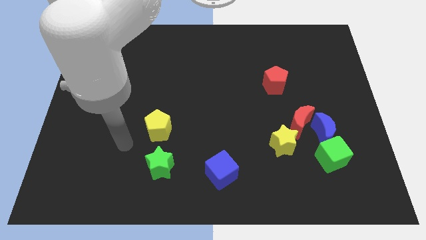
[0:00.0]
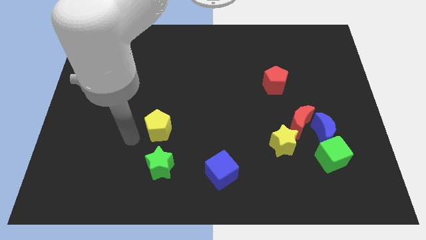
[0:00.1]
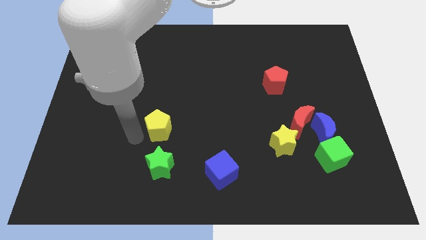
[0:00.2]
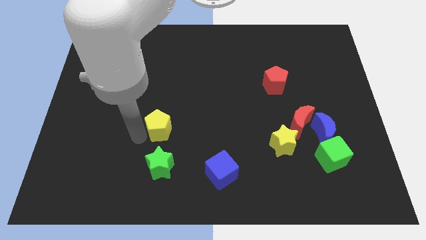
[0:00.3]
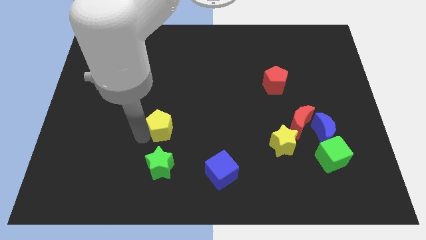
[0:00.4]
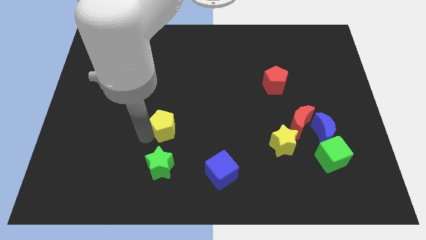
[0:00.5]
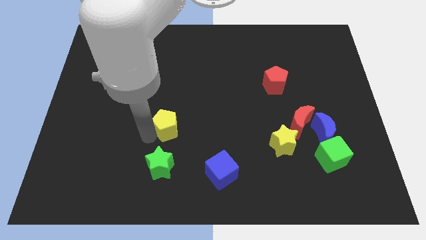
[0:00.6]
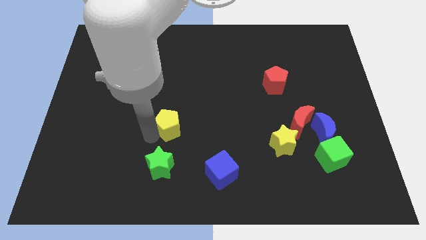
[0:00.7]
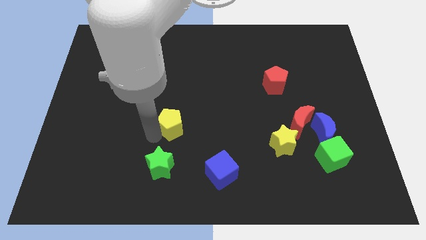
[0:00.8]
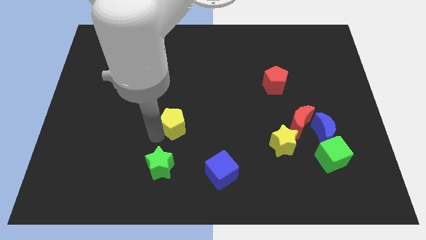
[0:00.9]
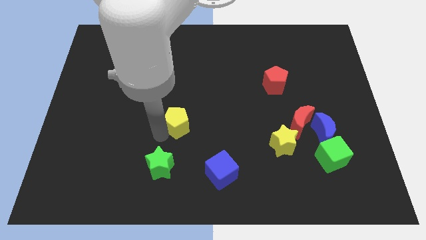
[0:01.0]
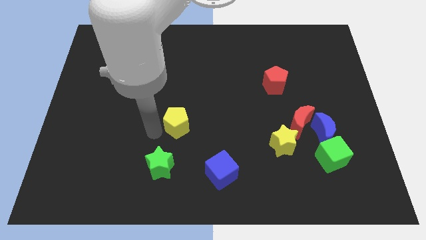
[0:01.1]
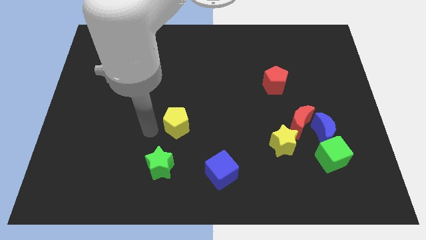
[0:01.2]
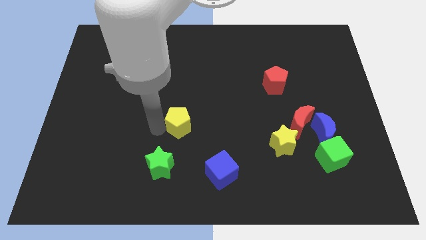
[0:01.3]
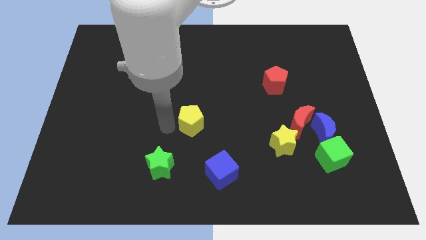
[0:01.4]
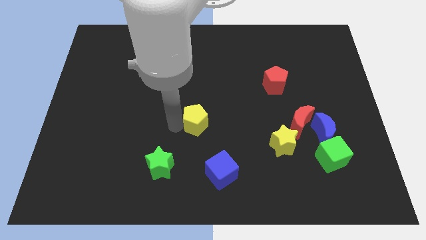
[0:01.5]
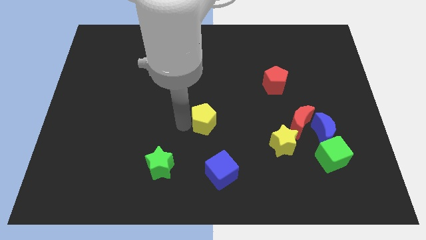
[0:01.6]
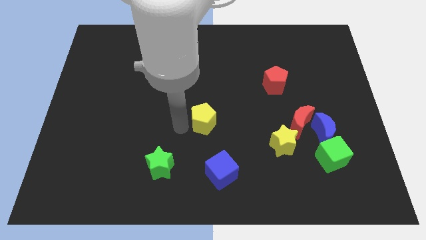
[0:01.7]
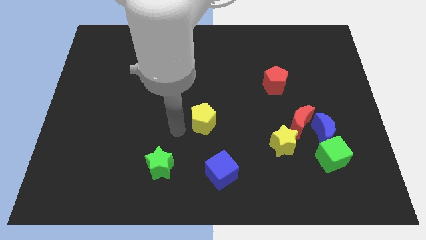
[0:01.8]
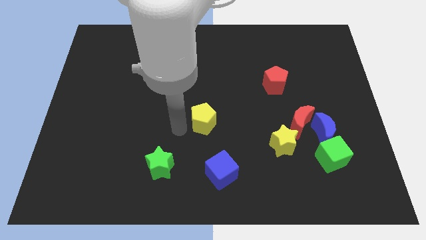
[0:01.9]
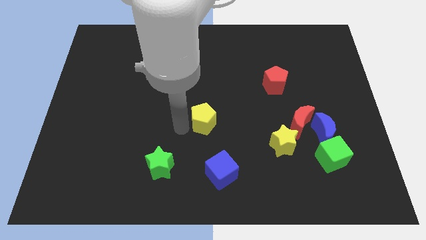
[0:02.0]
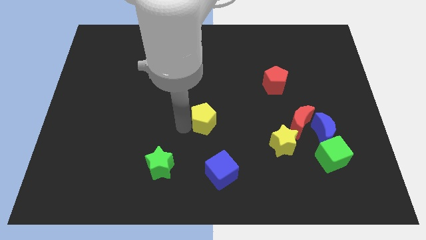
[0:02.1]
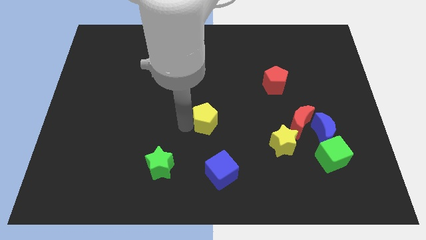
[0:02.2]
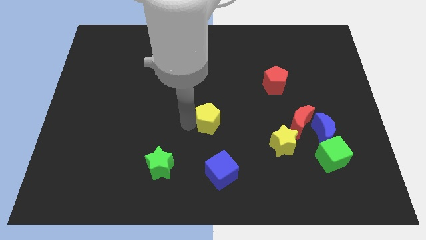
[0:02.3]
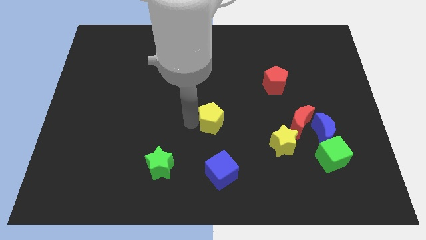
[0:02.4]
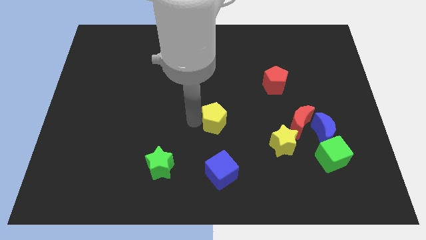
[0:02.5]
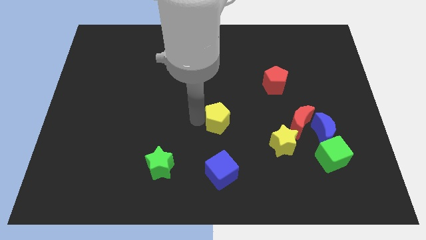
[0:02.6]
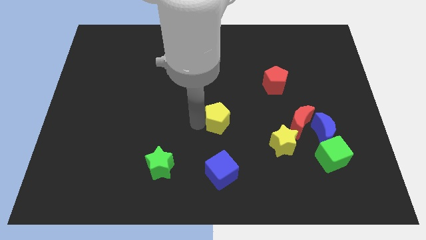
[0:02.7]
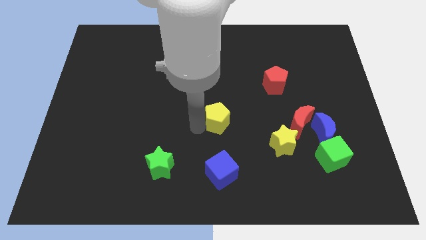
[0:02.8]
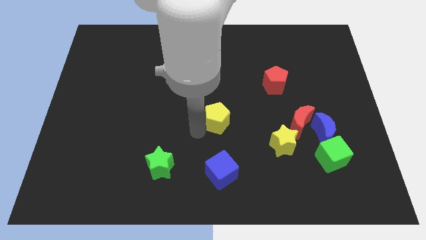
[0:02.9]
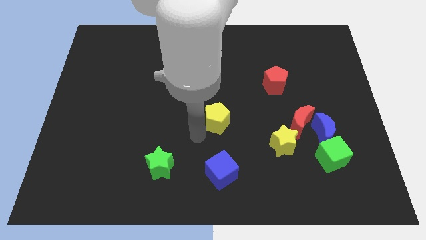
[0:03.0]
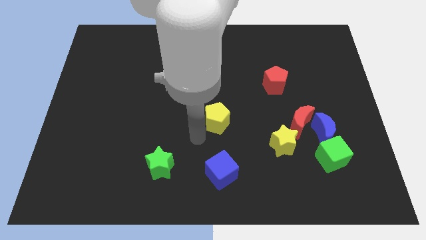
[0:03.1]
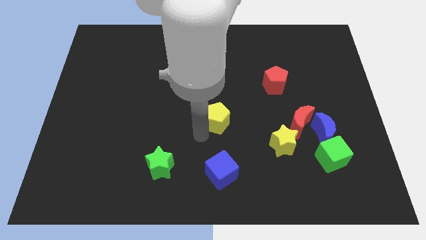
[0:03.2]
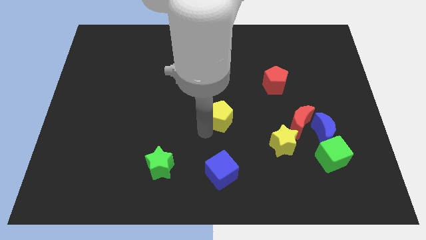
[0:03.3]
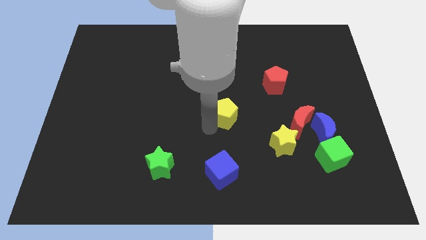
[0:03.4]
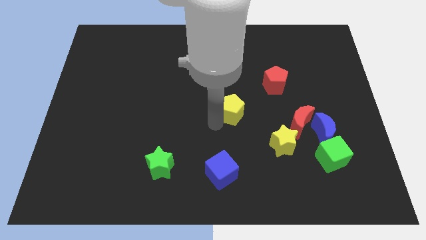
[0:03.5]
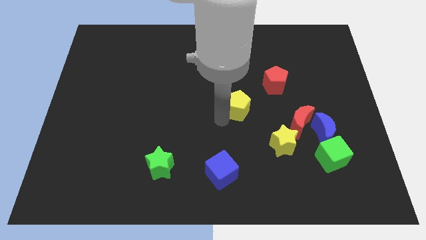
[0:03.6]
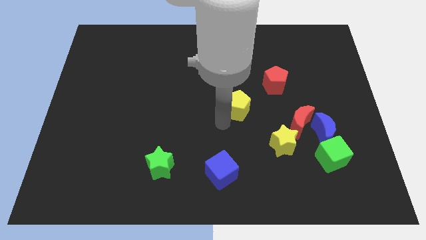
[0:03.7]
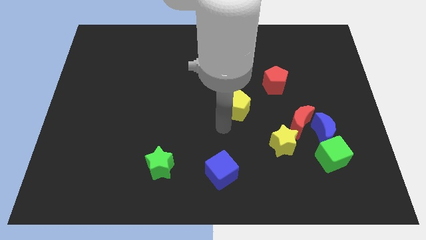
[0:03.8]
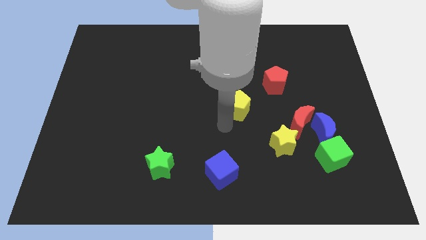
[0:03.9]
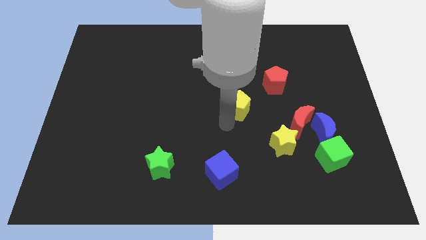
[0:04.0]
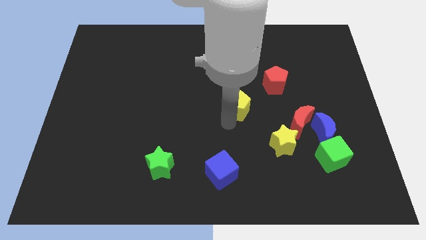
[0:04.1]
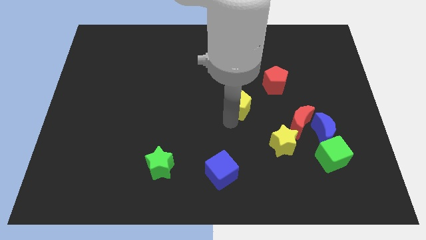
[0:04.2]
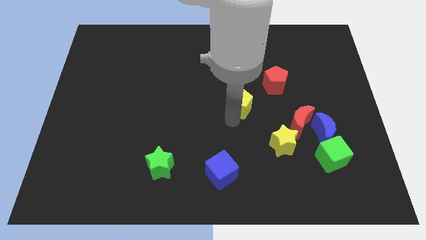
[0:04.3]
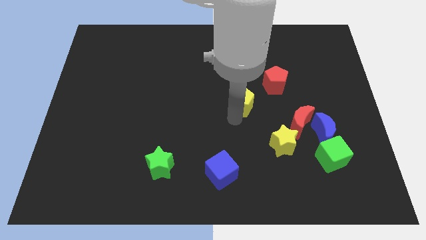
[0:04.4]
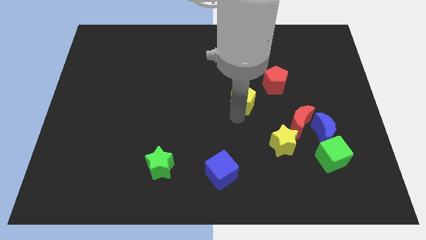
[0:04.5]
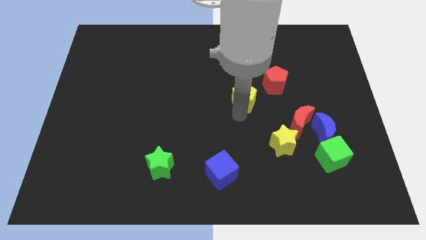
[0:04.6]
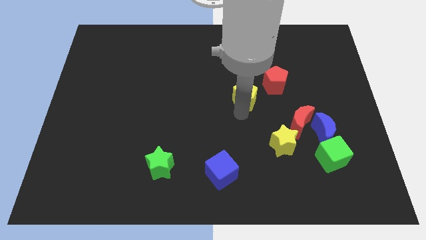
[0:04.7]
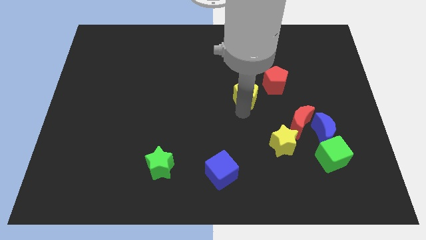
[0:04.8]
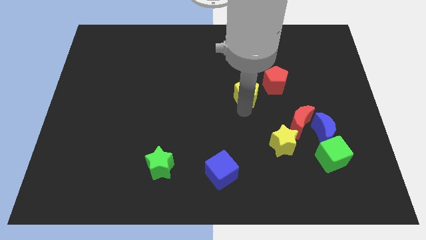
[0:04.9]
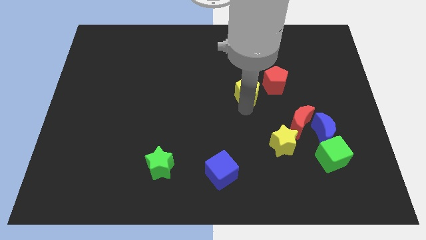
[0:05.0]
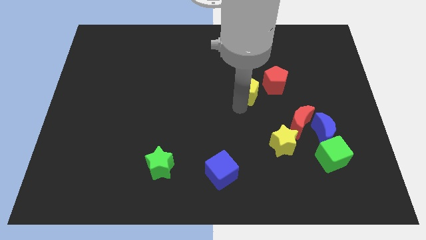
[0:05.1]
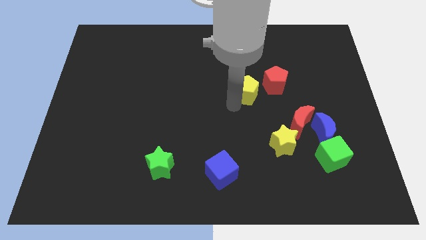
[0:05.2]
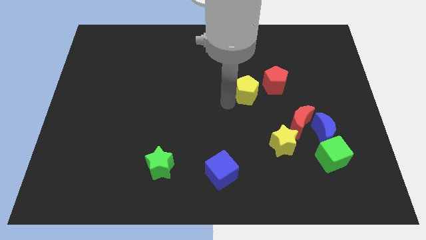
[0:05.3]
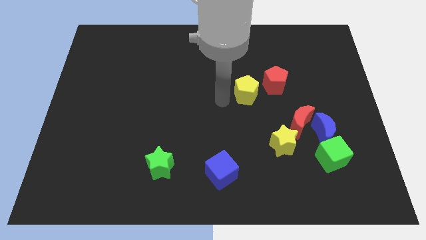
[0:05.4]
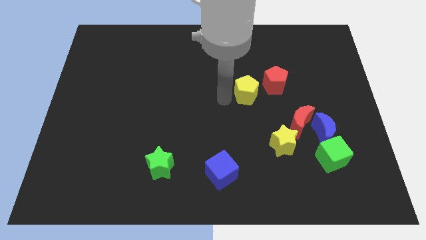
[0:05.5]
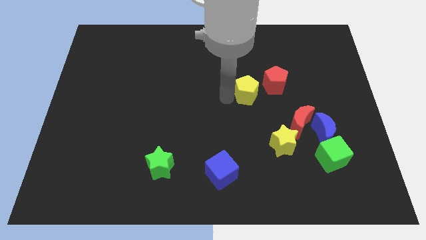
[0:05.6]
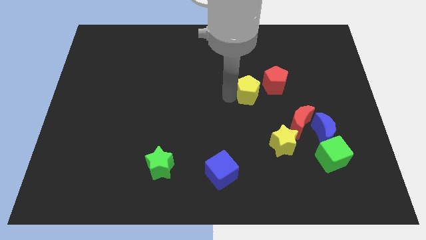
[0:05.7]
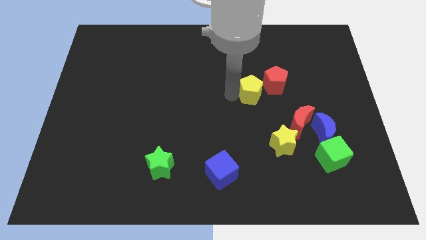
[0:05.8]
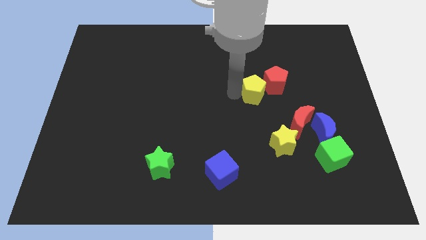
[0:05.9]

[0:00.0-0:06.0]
push the yellow pentagon next to the red pentagon
